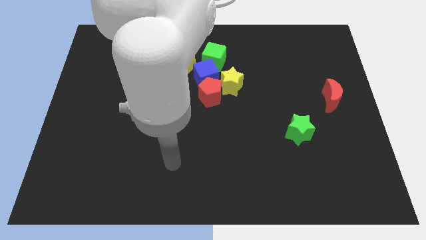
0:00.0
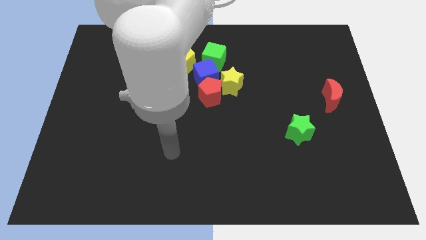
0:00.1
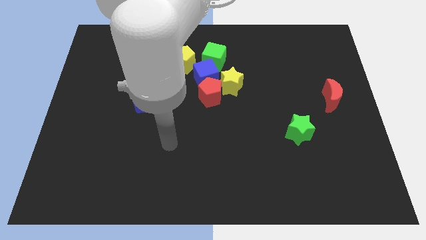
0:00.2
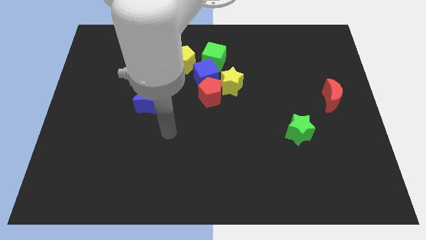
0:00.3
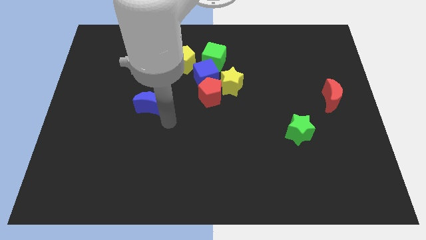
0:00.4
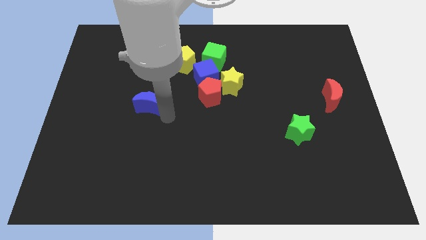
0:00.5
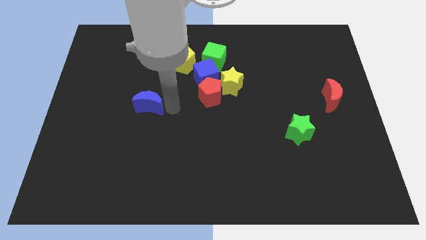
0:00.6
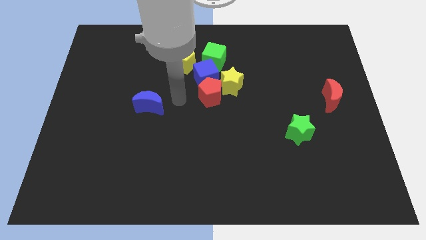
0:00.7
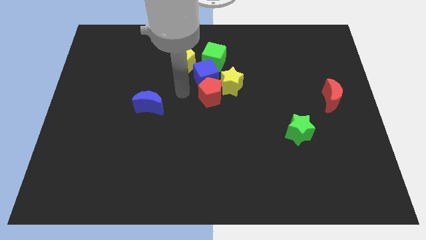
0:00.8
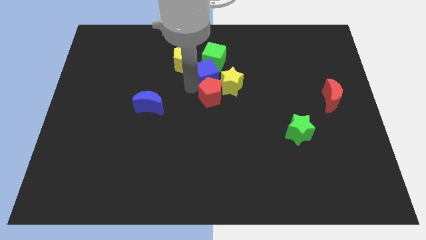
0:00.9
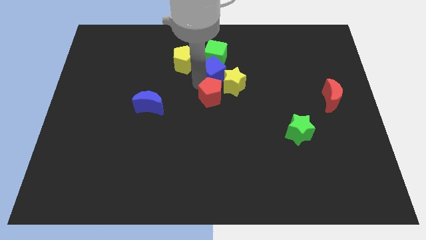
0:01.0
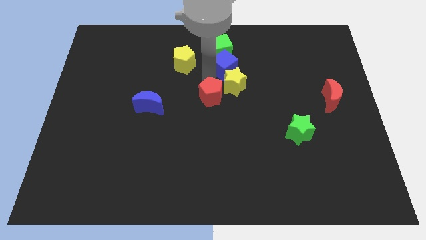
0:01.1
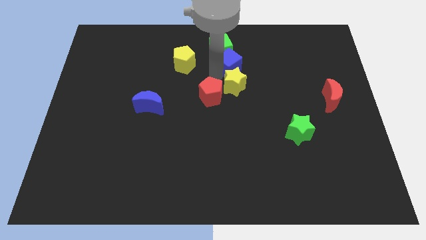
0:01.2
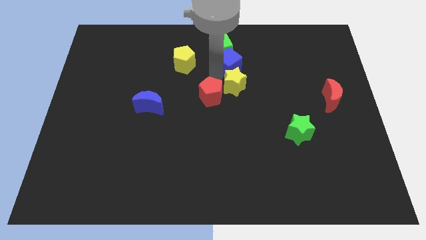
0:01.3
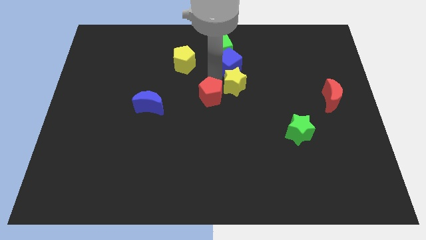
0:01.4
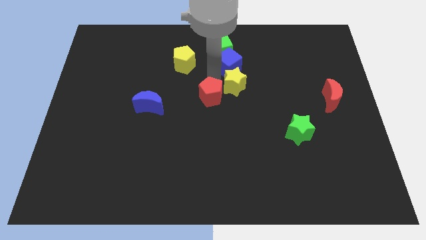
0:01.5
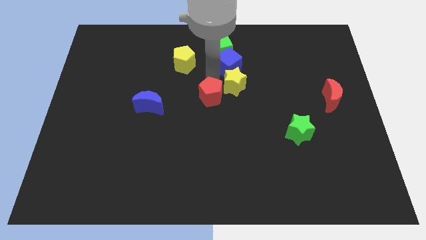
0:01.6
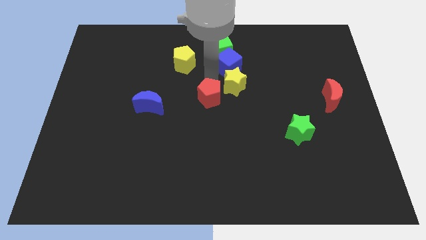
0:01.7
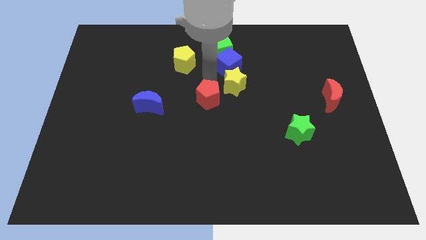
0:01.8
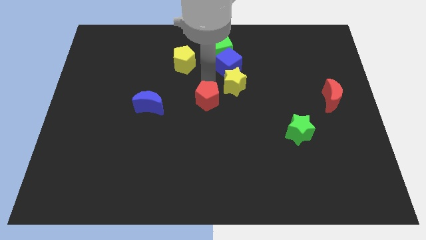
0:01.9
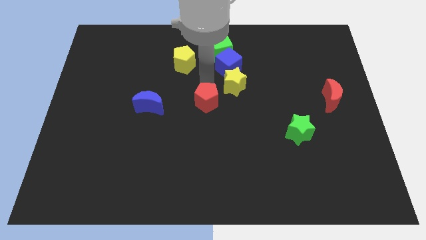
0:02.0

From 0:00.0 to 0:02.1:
pull the red pentagon apart from the blue cube and yellow star

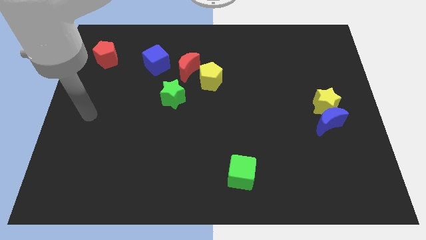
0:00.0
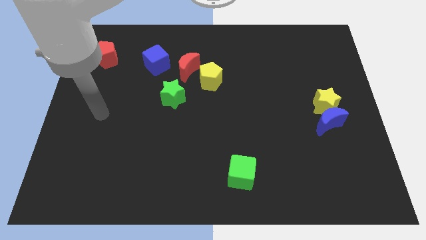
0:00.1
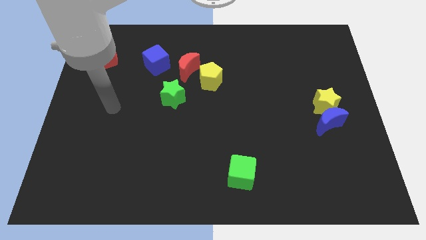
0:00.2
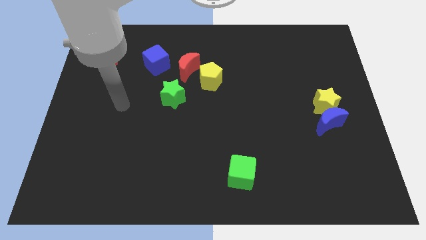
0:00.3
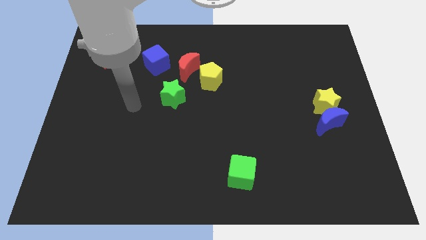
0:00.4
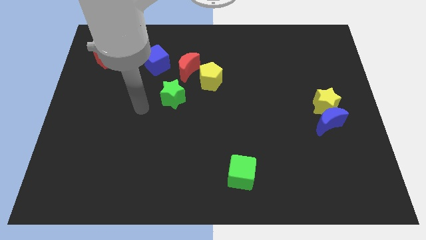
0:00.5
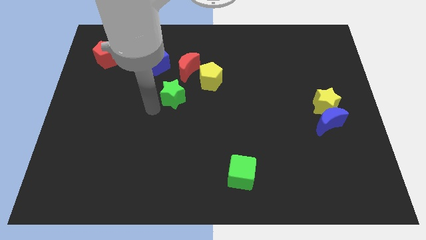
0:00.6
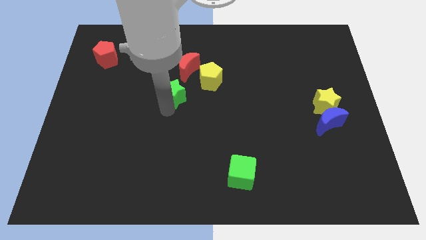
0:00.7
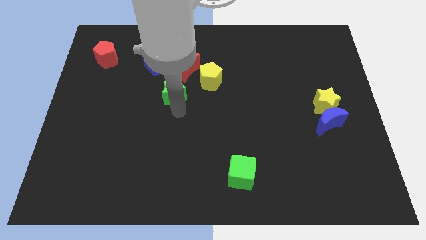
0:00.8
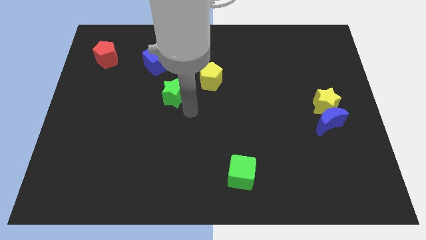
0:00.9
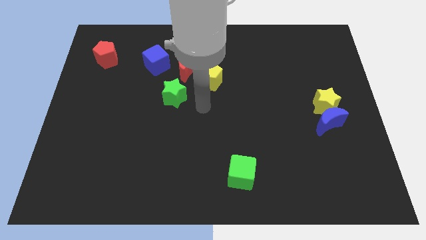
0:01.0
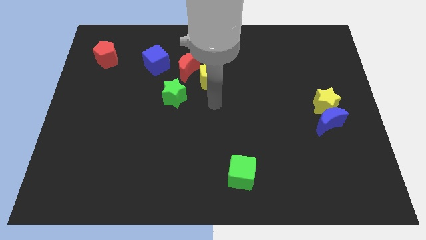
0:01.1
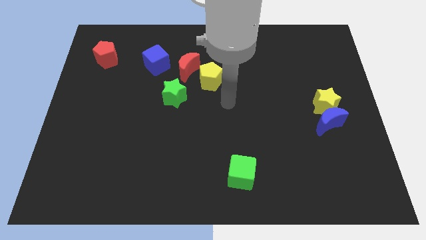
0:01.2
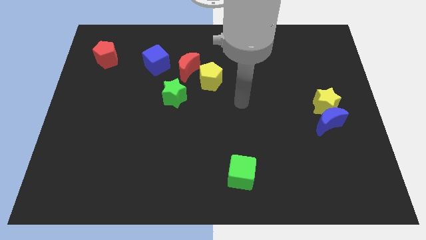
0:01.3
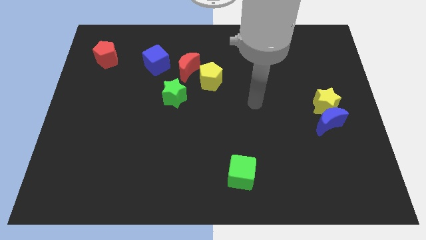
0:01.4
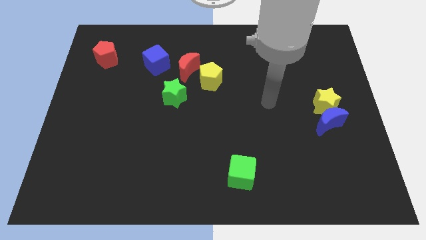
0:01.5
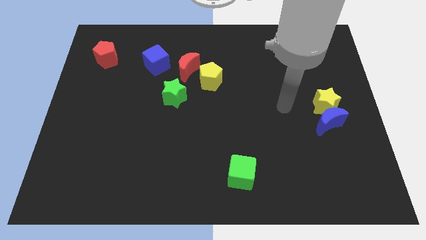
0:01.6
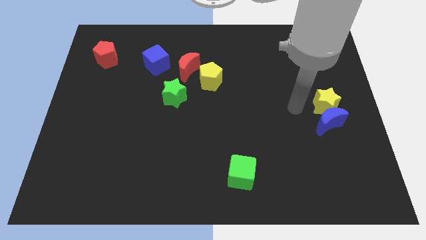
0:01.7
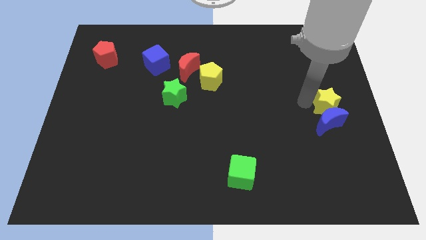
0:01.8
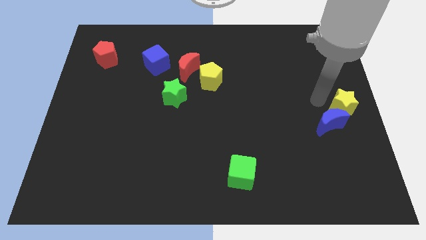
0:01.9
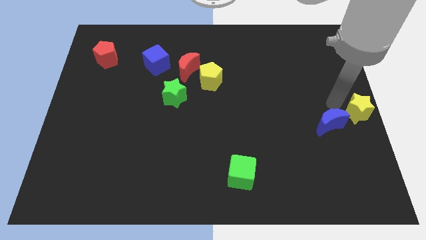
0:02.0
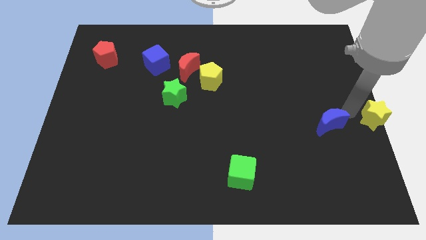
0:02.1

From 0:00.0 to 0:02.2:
move the blue moon away from the yellow star

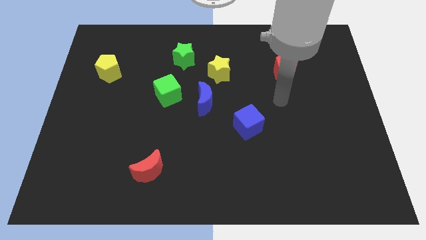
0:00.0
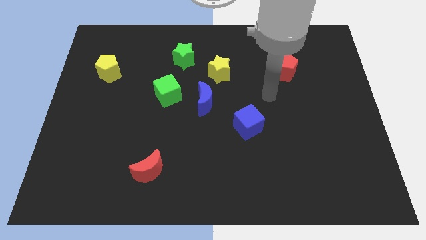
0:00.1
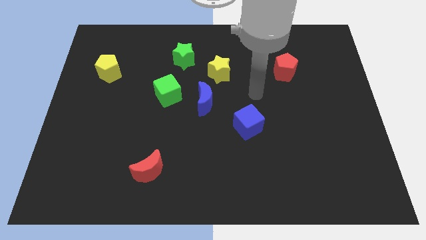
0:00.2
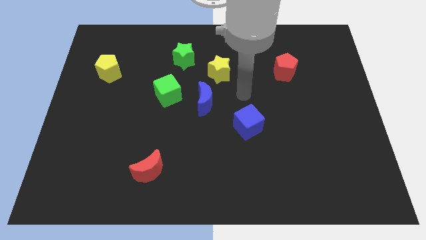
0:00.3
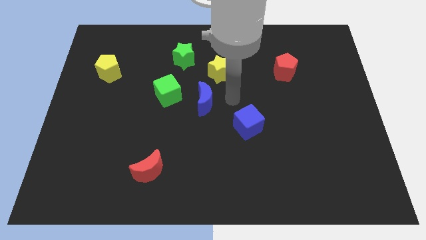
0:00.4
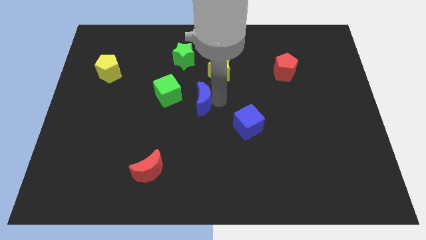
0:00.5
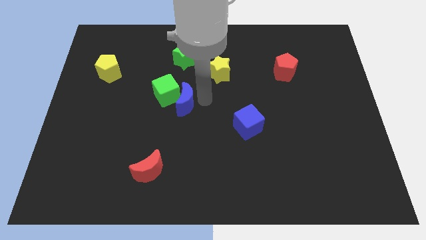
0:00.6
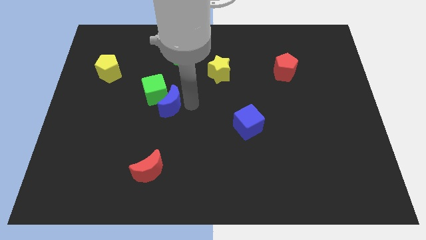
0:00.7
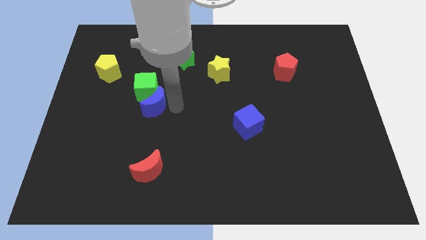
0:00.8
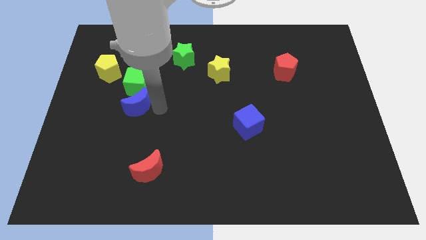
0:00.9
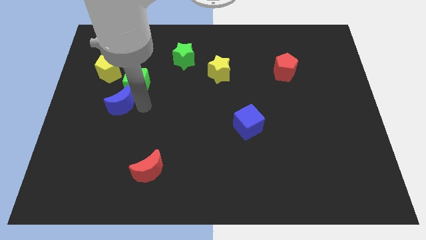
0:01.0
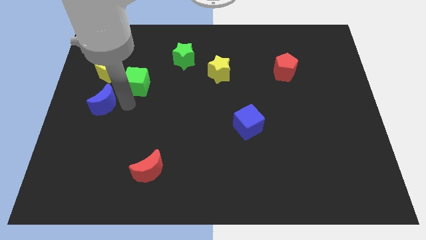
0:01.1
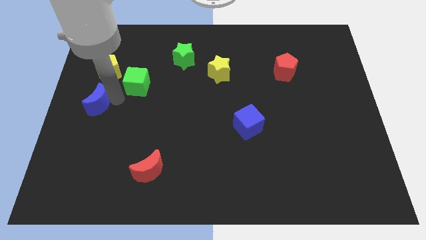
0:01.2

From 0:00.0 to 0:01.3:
move the green cube away from the blue moon

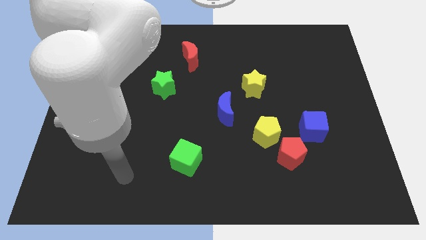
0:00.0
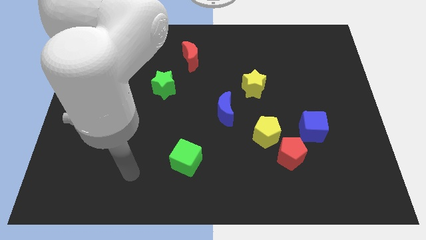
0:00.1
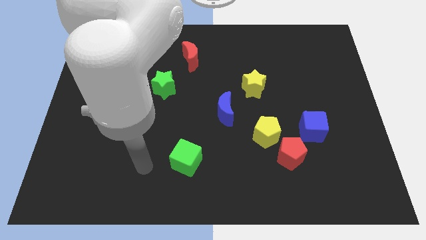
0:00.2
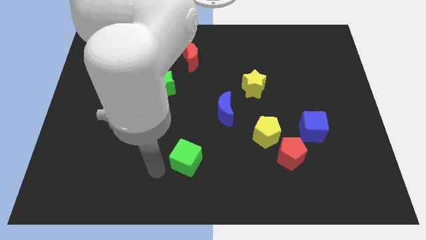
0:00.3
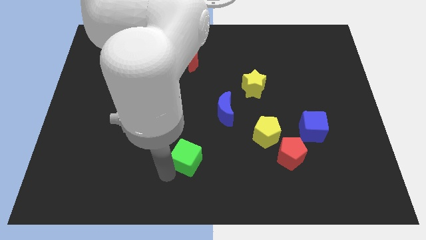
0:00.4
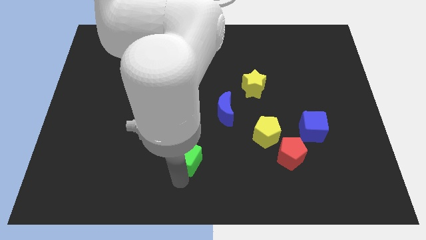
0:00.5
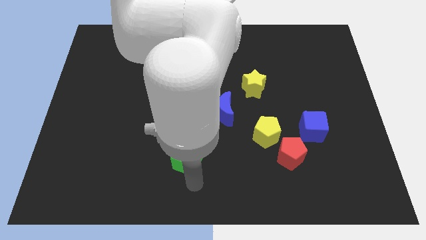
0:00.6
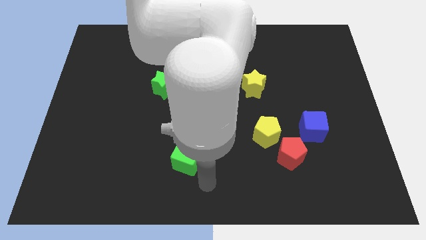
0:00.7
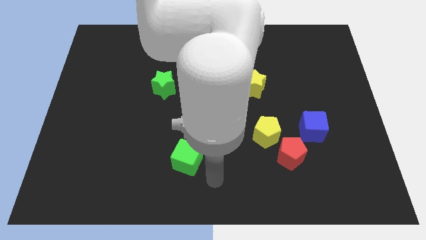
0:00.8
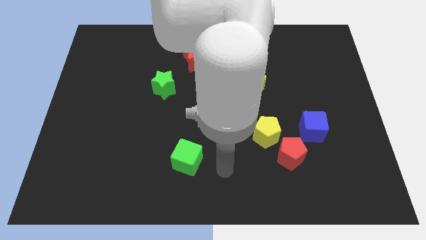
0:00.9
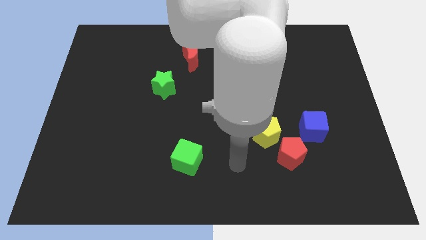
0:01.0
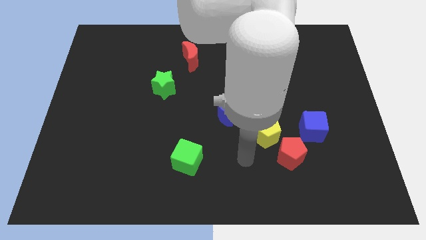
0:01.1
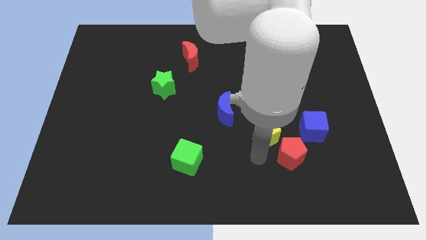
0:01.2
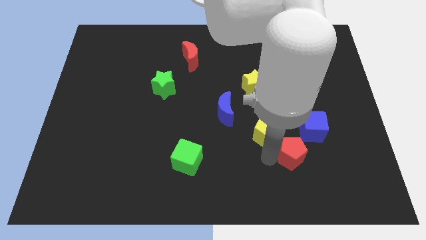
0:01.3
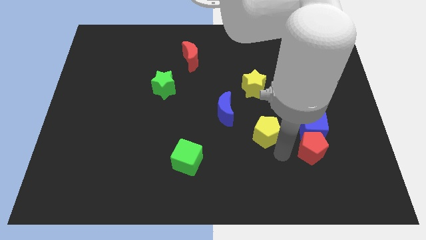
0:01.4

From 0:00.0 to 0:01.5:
move the yellow pentagon away from the red pentagon

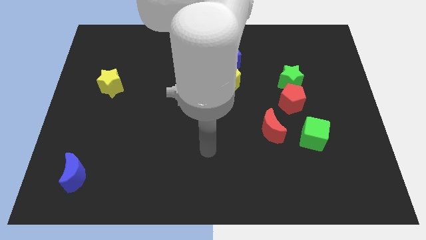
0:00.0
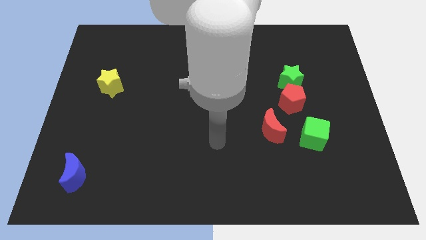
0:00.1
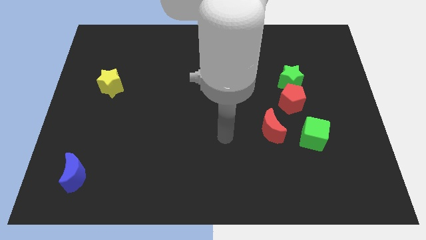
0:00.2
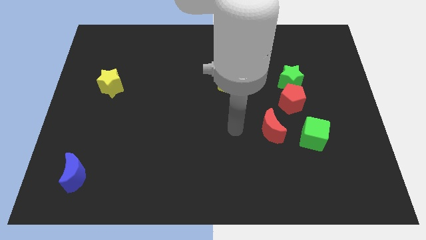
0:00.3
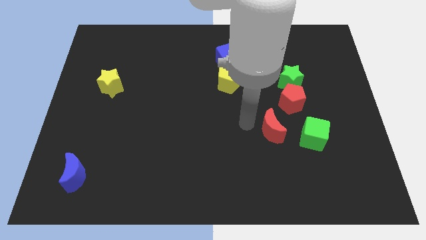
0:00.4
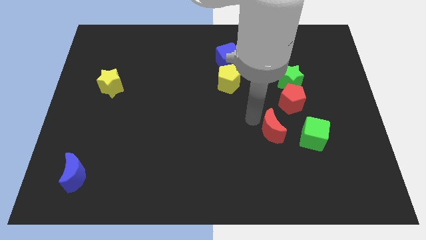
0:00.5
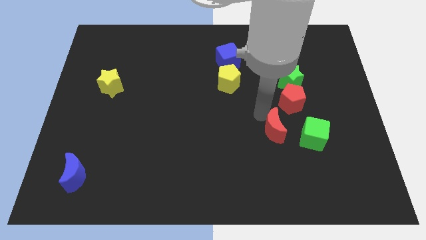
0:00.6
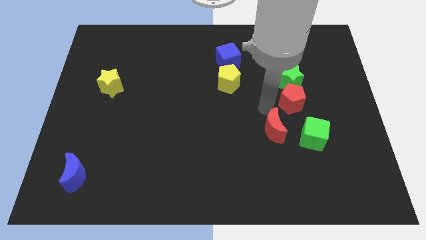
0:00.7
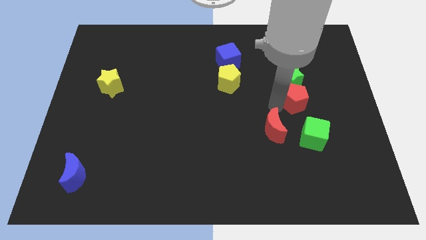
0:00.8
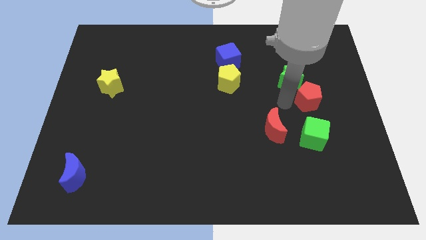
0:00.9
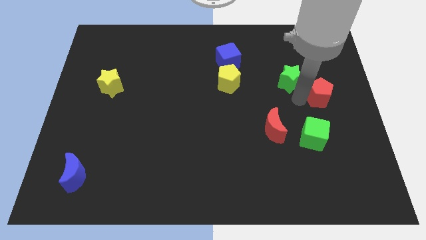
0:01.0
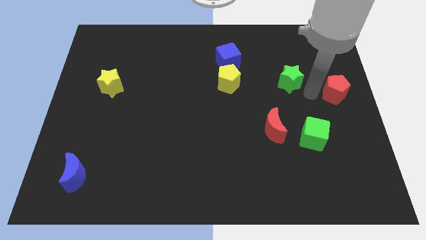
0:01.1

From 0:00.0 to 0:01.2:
pull the green star apart from the red pentagon

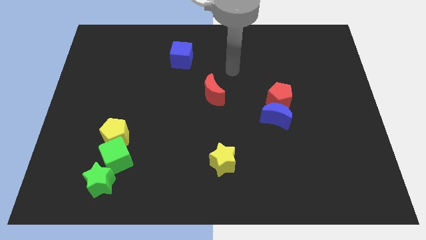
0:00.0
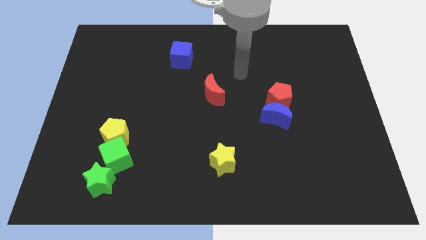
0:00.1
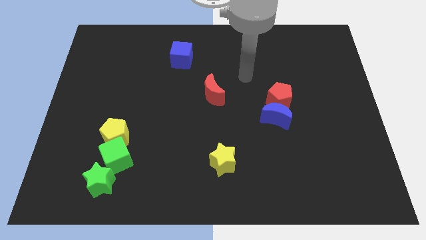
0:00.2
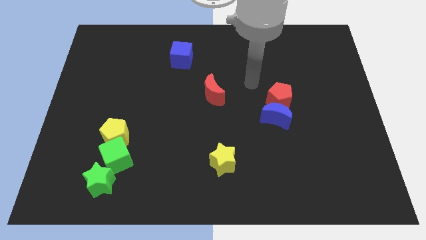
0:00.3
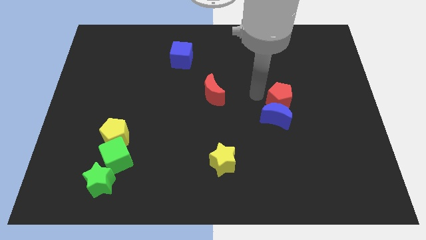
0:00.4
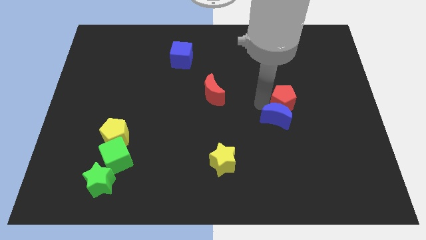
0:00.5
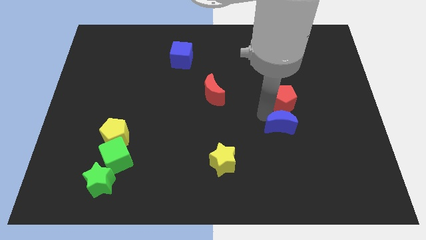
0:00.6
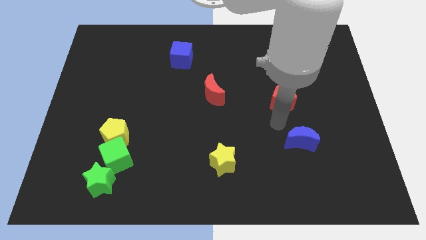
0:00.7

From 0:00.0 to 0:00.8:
move the red pentagon away from the blue moon

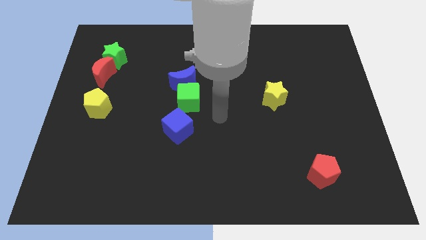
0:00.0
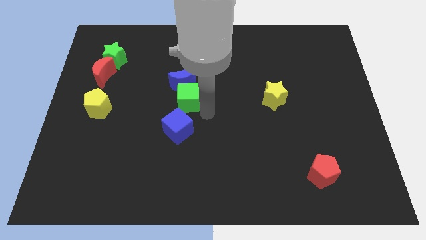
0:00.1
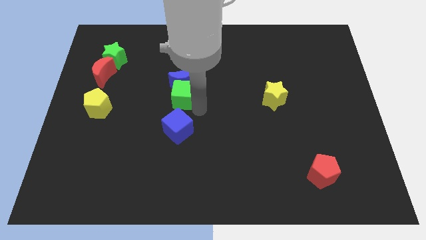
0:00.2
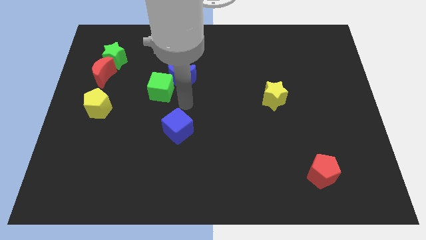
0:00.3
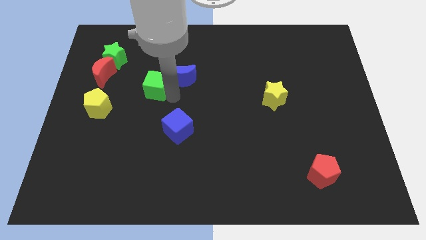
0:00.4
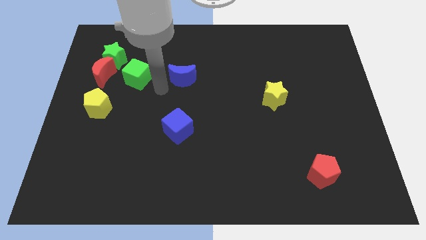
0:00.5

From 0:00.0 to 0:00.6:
pull the blue moon apart from the green cube
